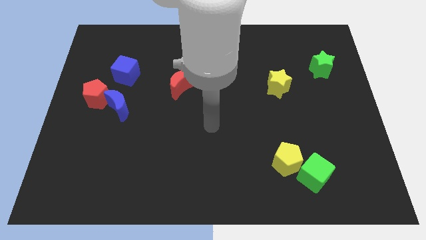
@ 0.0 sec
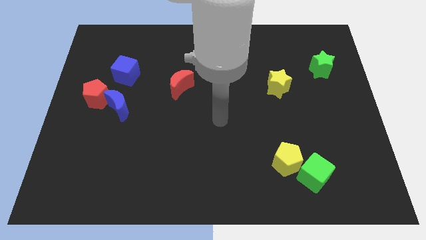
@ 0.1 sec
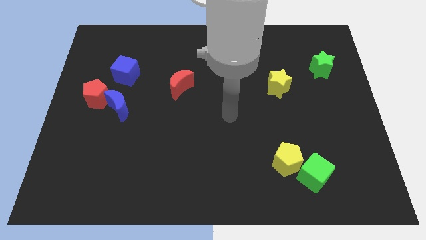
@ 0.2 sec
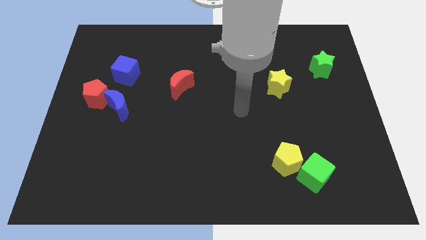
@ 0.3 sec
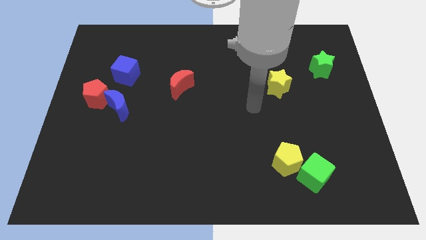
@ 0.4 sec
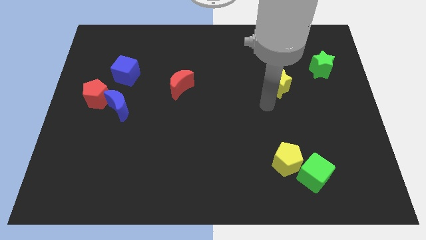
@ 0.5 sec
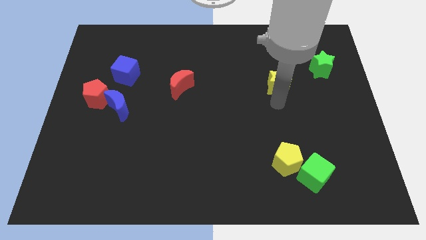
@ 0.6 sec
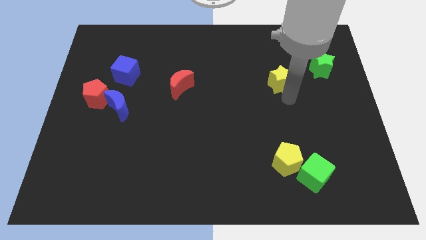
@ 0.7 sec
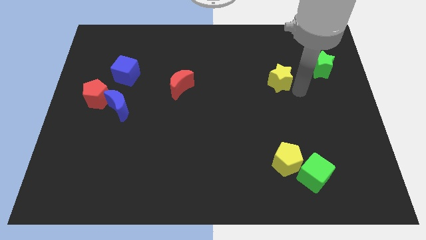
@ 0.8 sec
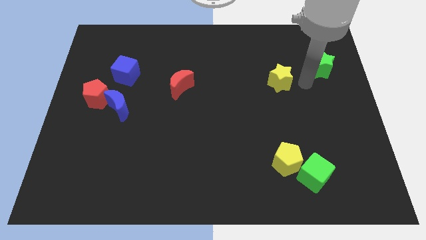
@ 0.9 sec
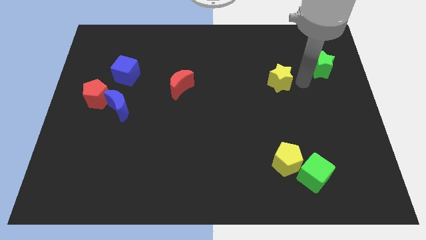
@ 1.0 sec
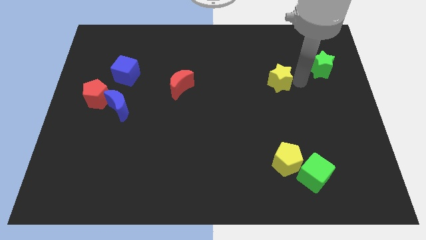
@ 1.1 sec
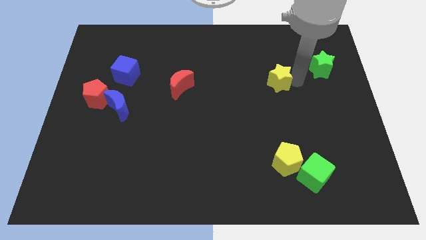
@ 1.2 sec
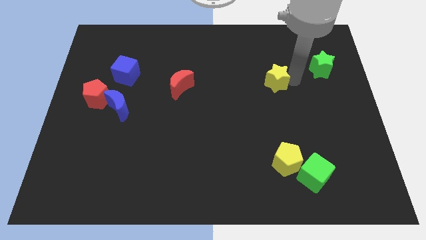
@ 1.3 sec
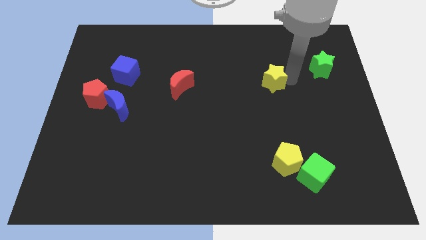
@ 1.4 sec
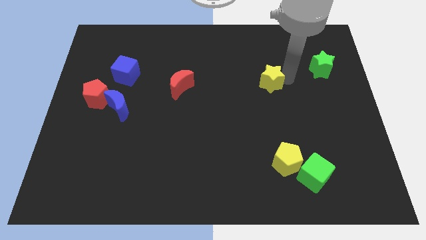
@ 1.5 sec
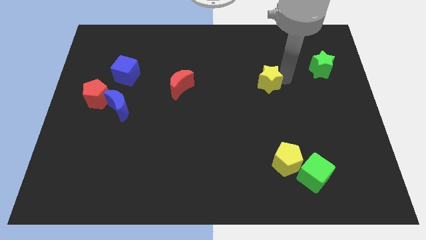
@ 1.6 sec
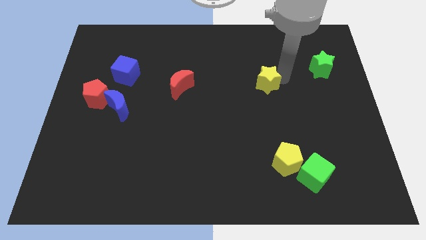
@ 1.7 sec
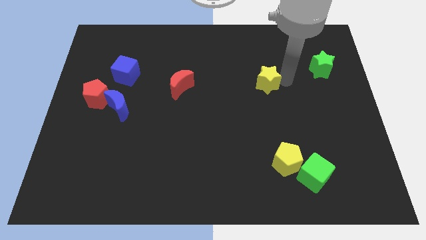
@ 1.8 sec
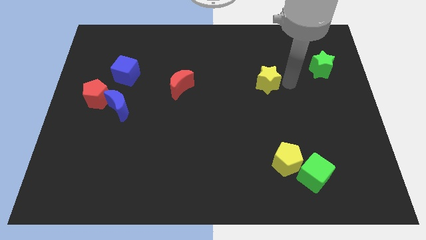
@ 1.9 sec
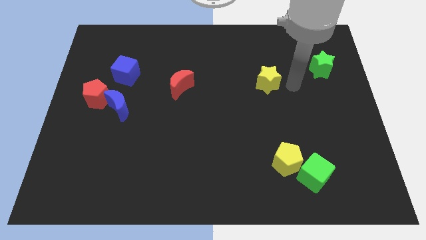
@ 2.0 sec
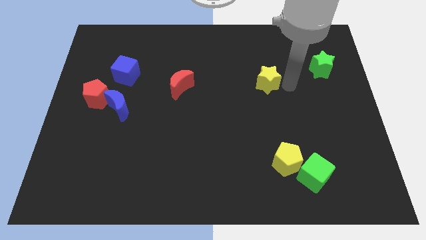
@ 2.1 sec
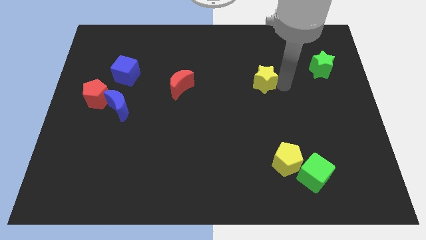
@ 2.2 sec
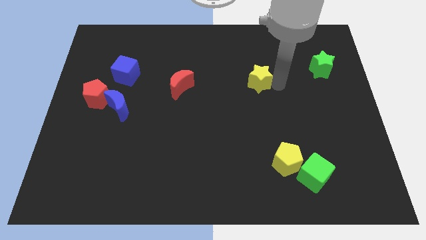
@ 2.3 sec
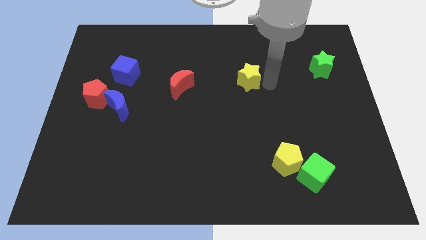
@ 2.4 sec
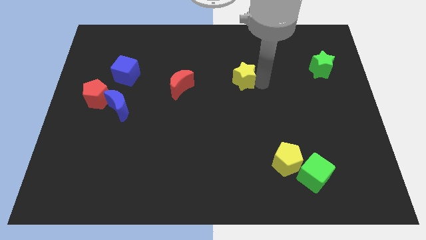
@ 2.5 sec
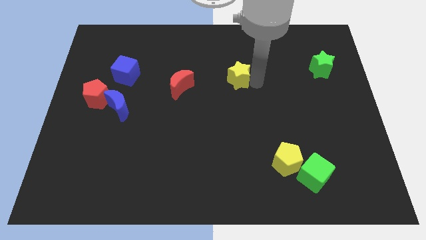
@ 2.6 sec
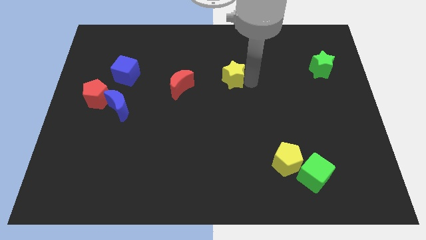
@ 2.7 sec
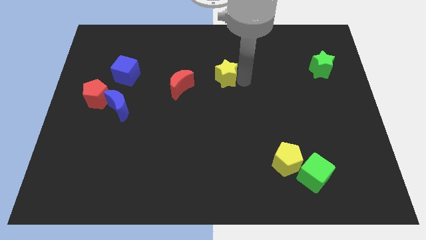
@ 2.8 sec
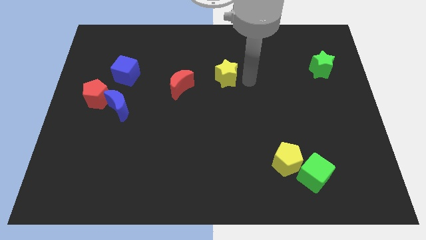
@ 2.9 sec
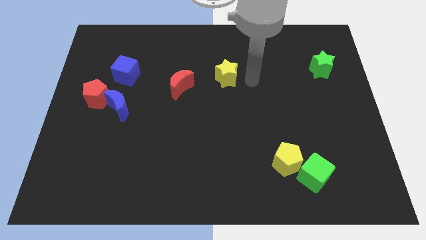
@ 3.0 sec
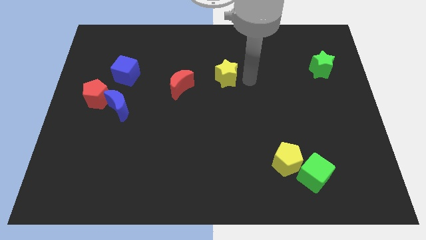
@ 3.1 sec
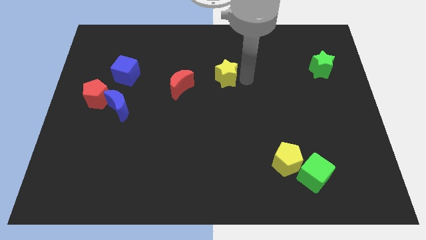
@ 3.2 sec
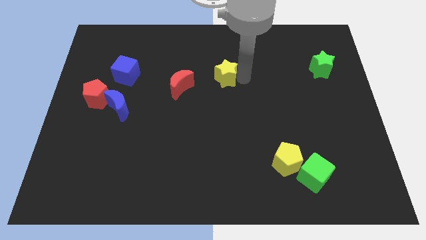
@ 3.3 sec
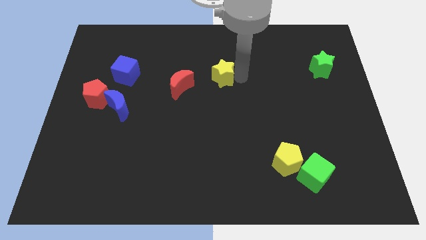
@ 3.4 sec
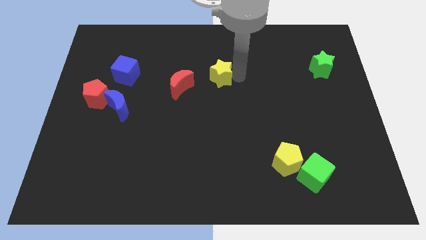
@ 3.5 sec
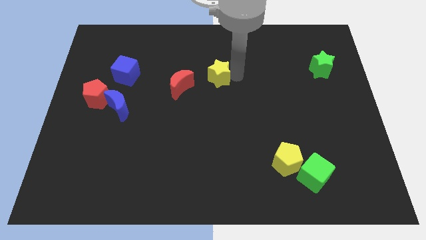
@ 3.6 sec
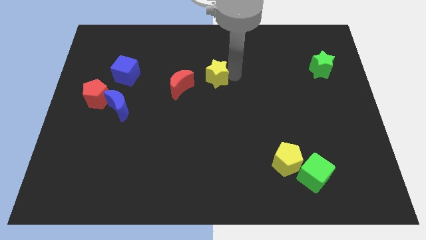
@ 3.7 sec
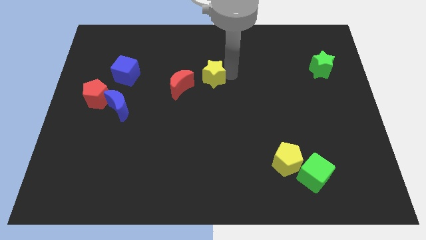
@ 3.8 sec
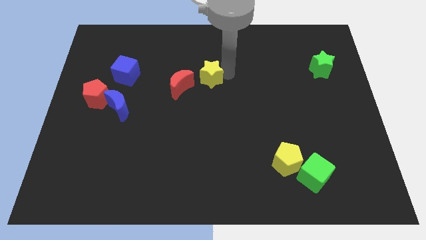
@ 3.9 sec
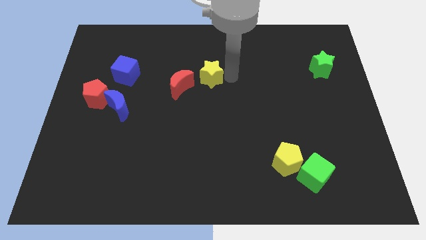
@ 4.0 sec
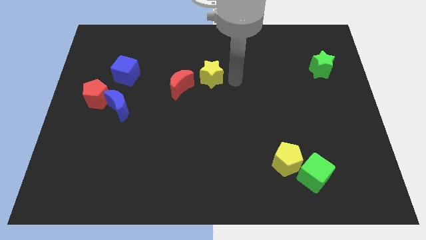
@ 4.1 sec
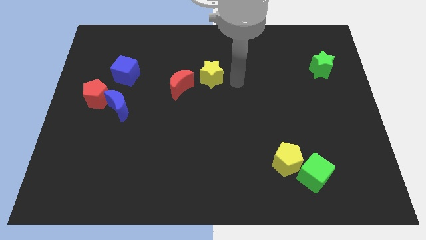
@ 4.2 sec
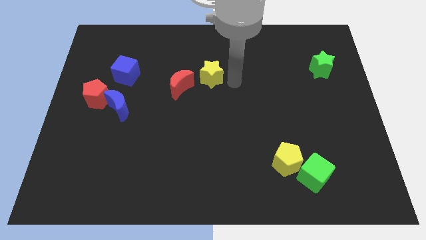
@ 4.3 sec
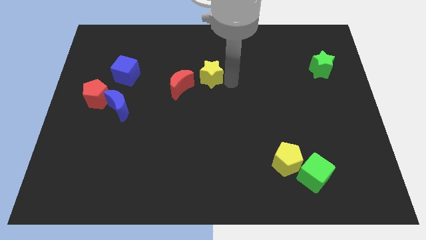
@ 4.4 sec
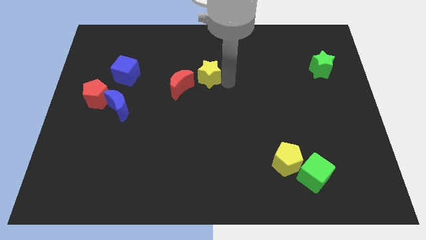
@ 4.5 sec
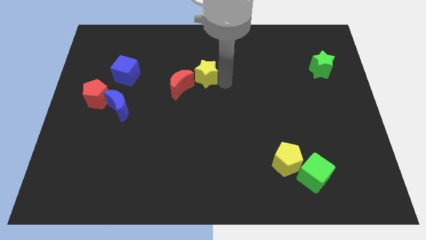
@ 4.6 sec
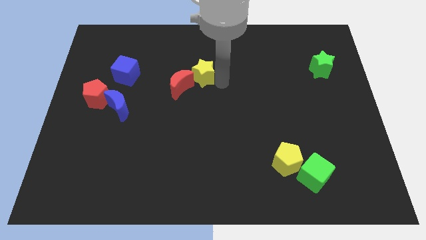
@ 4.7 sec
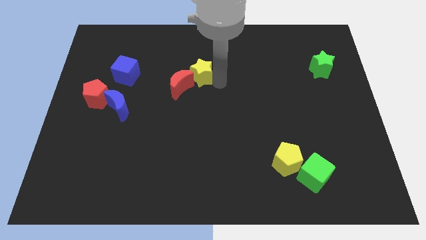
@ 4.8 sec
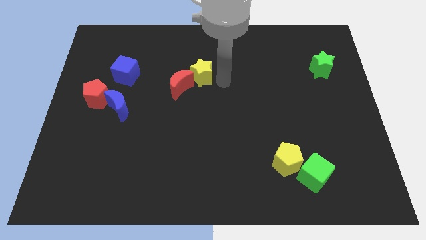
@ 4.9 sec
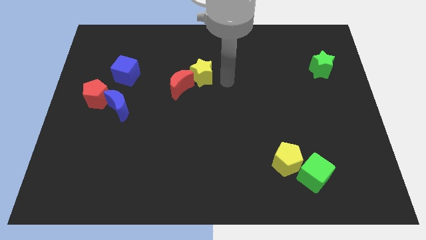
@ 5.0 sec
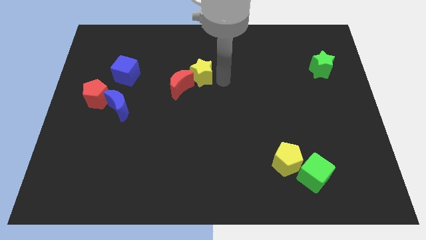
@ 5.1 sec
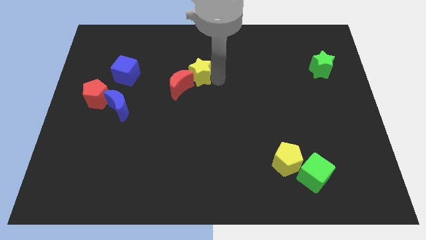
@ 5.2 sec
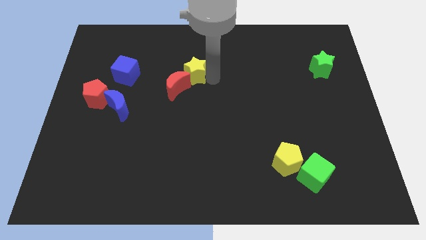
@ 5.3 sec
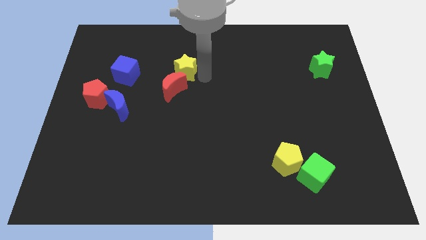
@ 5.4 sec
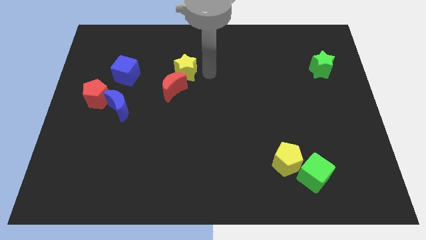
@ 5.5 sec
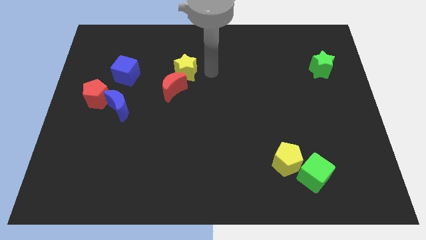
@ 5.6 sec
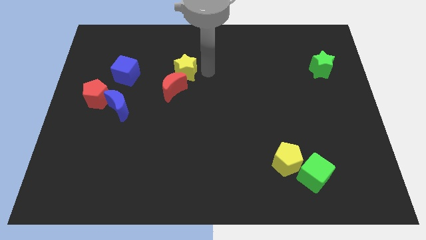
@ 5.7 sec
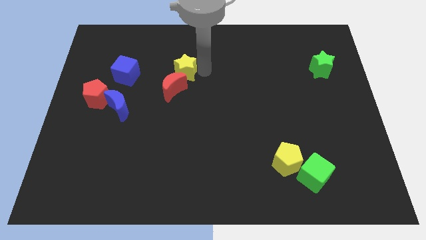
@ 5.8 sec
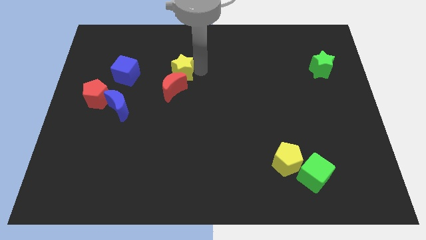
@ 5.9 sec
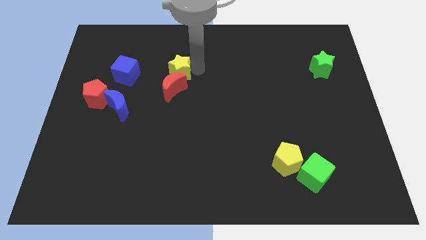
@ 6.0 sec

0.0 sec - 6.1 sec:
move the yellow star to the top left of the red moon

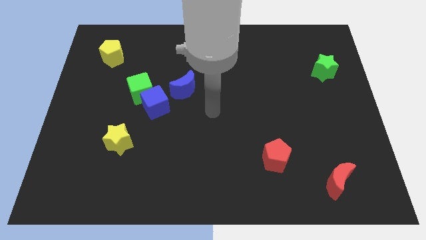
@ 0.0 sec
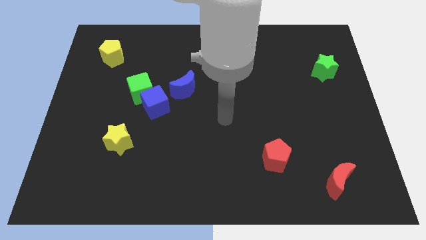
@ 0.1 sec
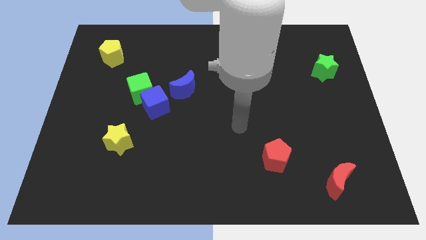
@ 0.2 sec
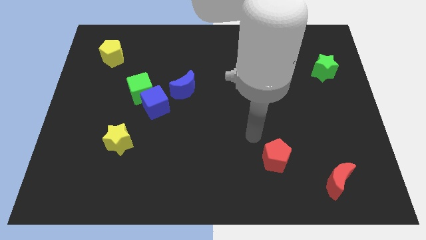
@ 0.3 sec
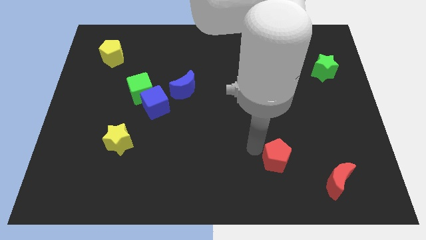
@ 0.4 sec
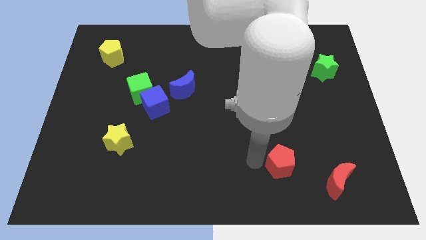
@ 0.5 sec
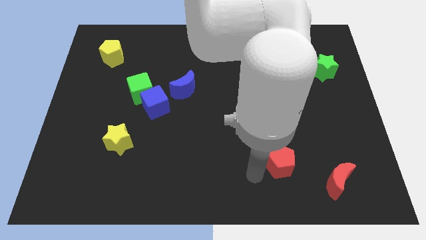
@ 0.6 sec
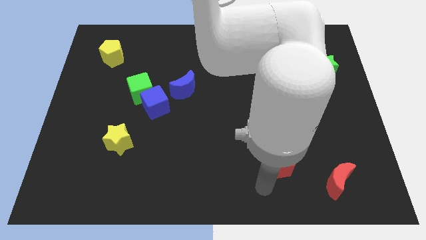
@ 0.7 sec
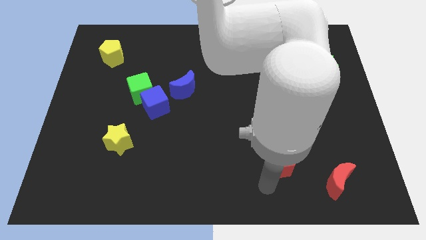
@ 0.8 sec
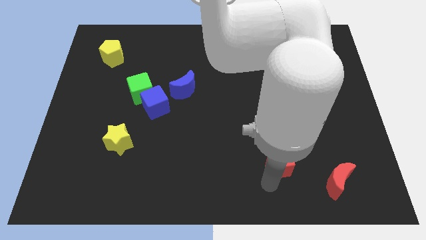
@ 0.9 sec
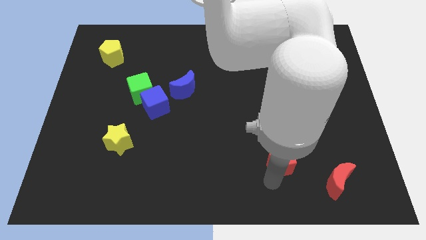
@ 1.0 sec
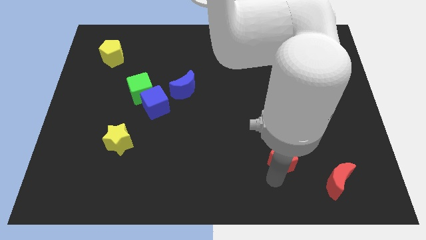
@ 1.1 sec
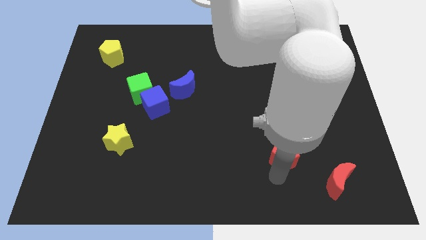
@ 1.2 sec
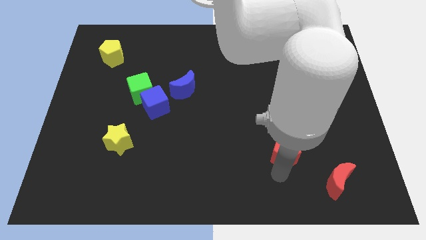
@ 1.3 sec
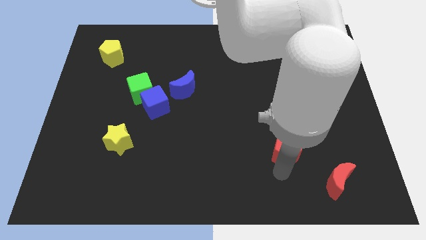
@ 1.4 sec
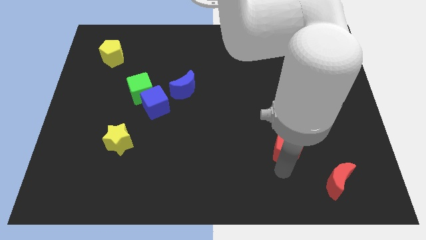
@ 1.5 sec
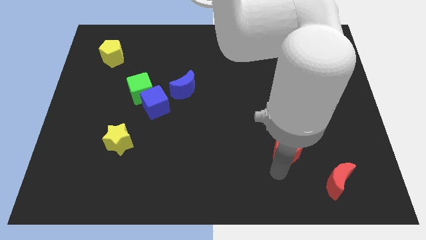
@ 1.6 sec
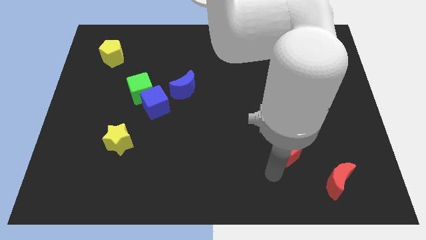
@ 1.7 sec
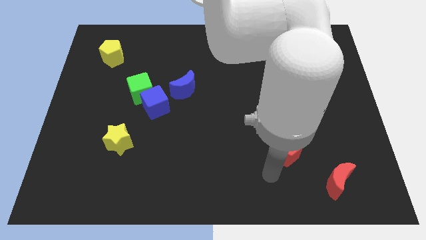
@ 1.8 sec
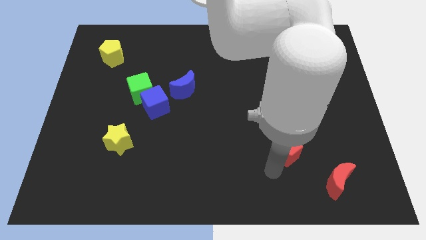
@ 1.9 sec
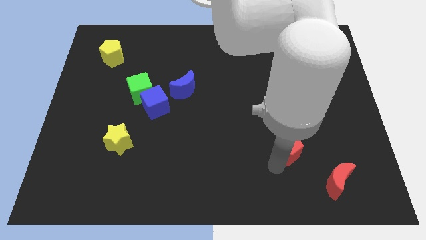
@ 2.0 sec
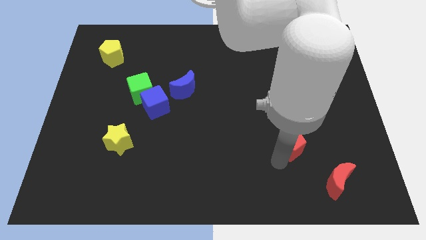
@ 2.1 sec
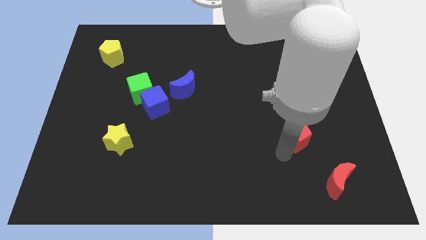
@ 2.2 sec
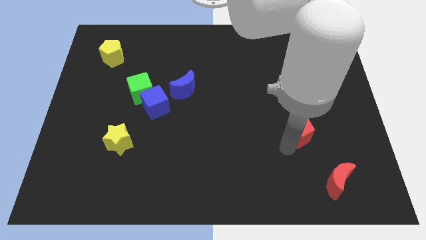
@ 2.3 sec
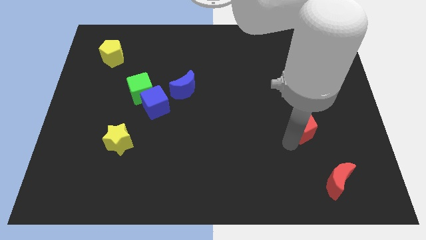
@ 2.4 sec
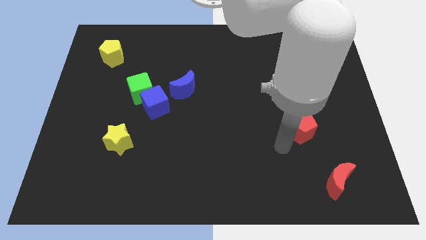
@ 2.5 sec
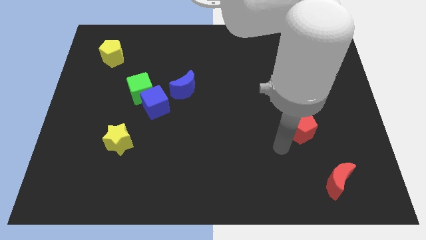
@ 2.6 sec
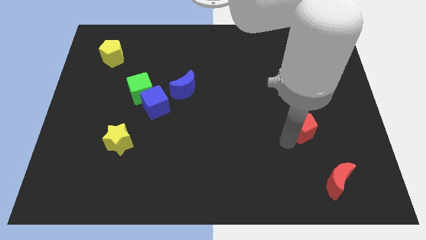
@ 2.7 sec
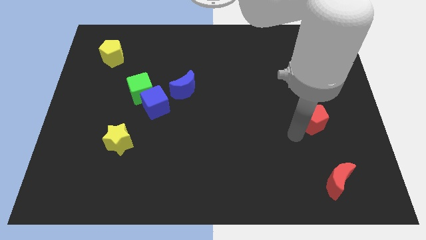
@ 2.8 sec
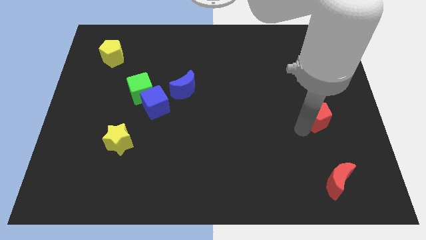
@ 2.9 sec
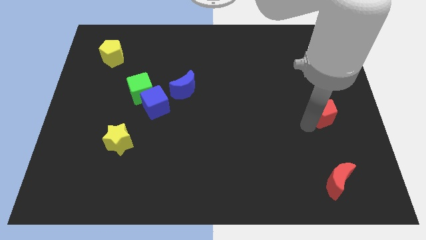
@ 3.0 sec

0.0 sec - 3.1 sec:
move the red pentagon below the green star
